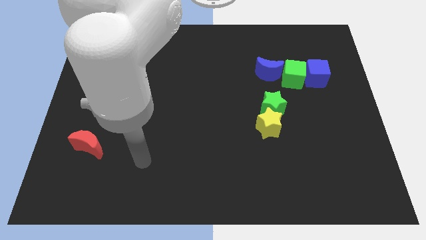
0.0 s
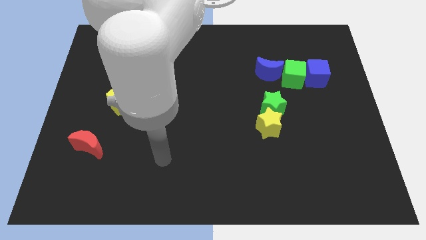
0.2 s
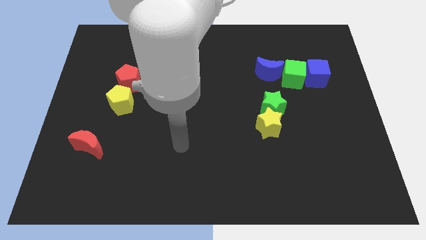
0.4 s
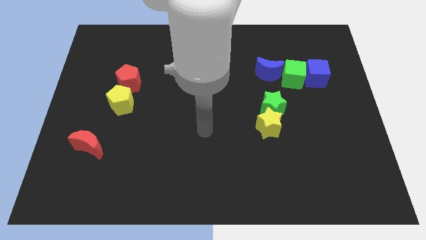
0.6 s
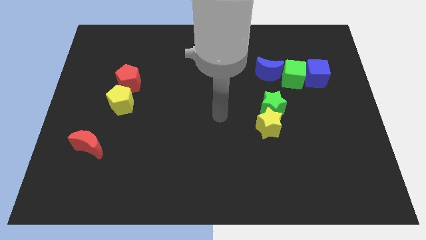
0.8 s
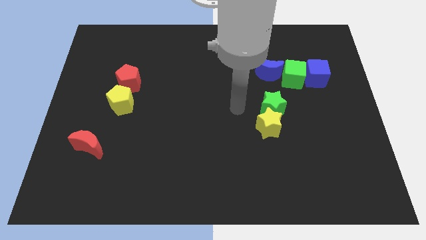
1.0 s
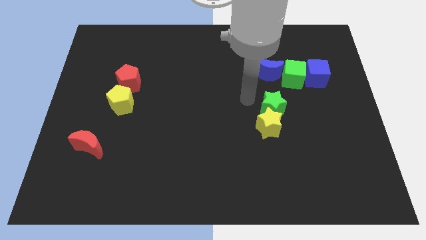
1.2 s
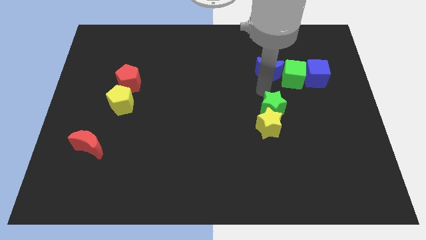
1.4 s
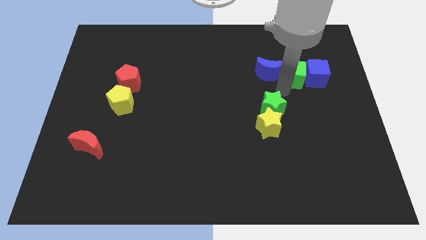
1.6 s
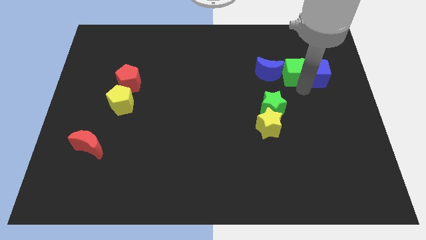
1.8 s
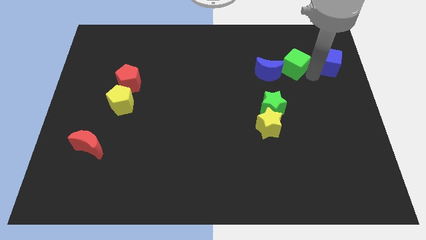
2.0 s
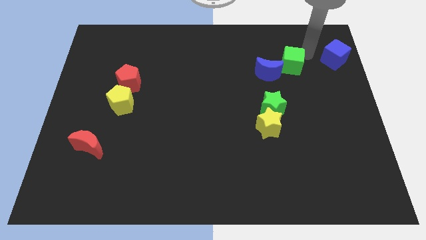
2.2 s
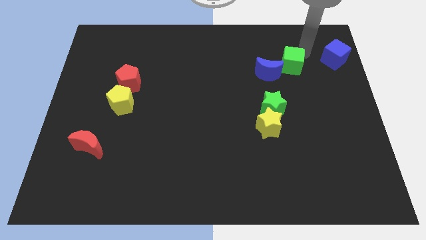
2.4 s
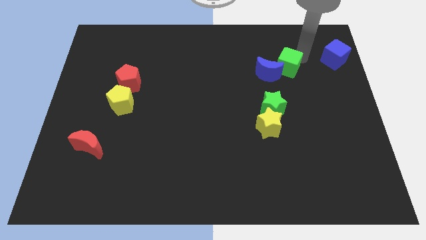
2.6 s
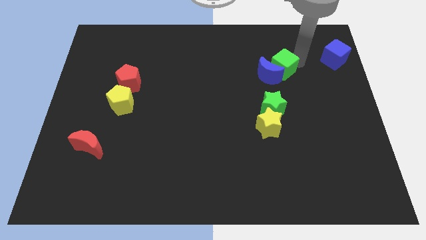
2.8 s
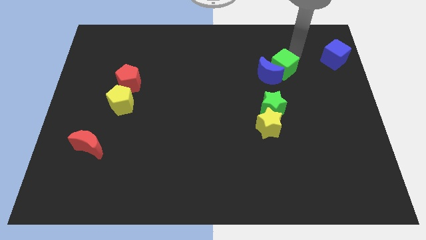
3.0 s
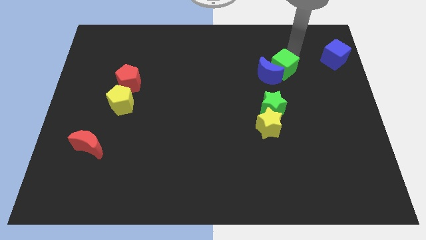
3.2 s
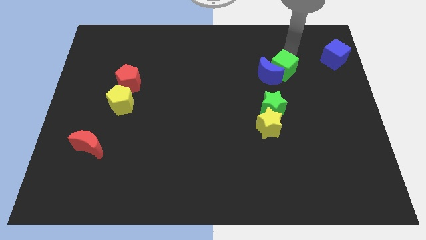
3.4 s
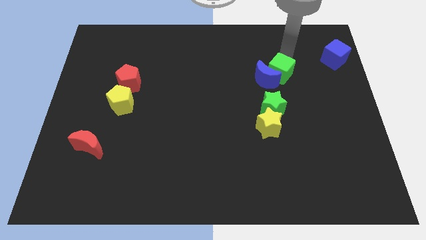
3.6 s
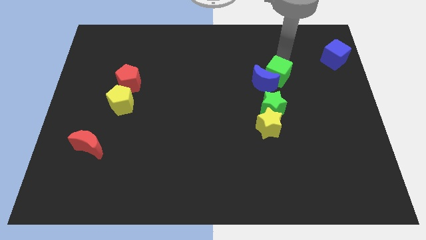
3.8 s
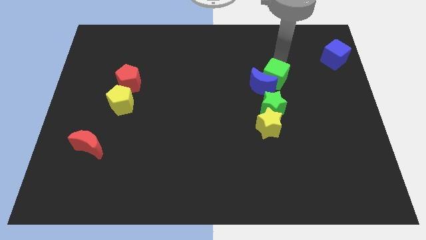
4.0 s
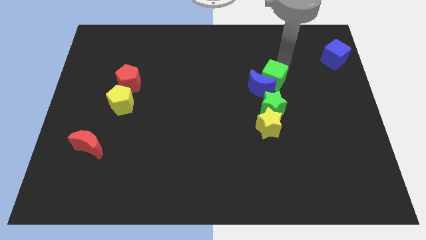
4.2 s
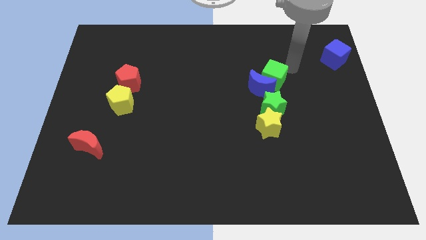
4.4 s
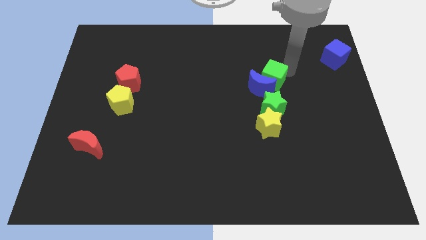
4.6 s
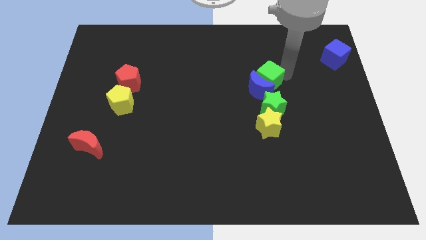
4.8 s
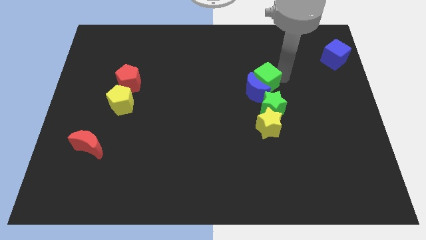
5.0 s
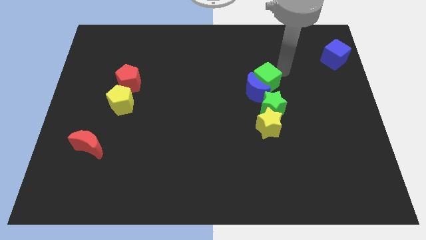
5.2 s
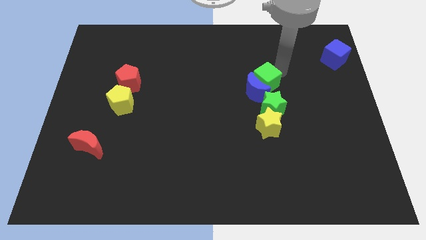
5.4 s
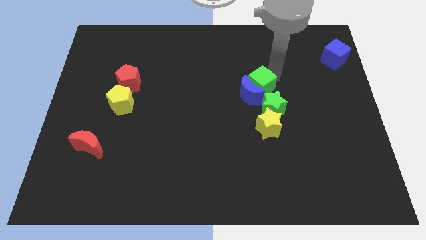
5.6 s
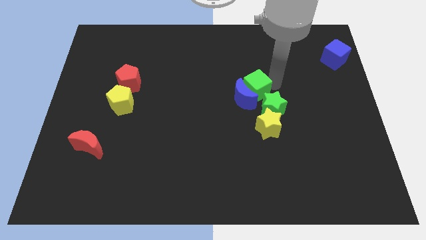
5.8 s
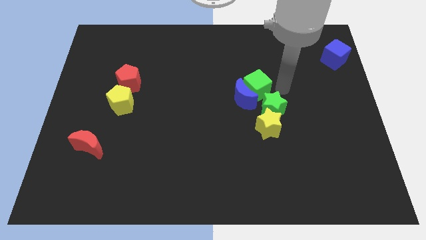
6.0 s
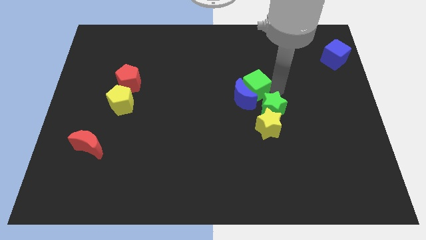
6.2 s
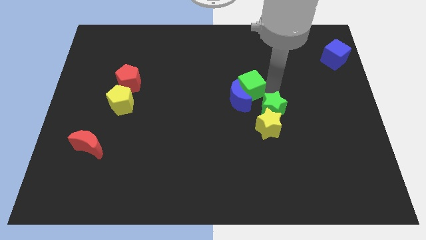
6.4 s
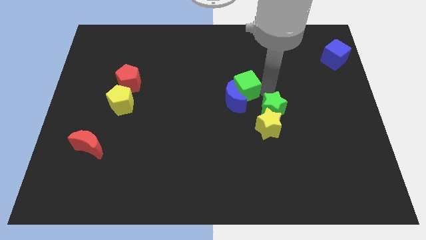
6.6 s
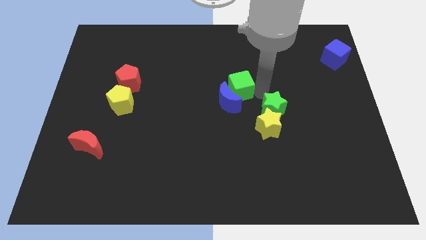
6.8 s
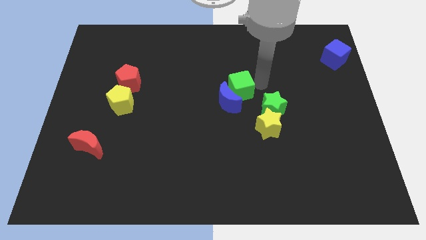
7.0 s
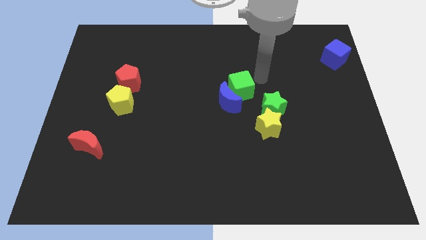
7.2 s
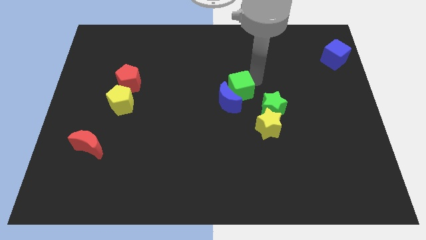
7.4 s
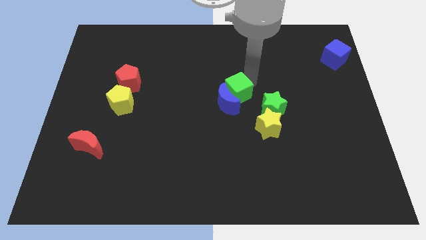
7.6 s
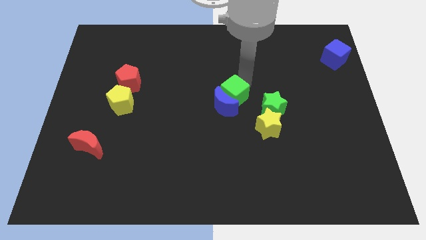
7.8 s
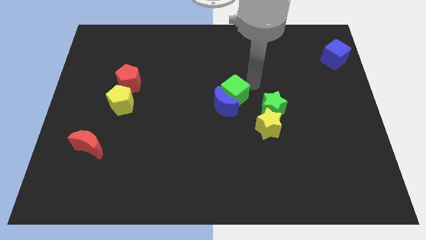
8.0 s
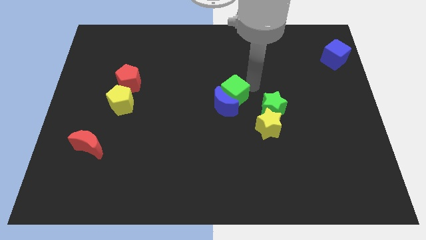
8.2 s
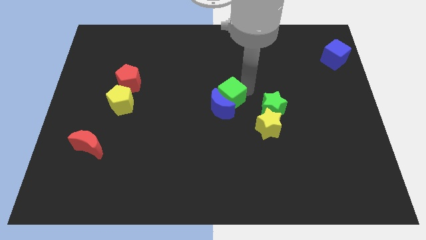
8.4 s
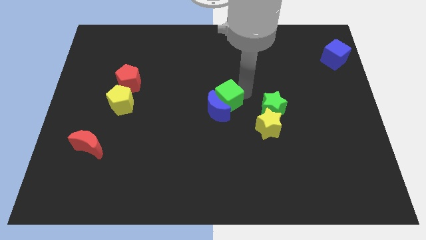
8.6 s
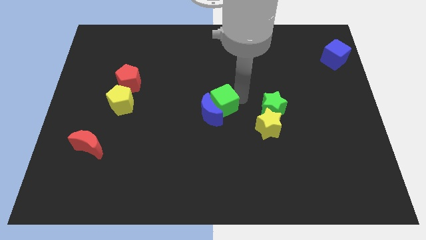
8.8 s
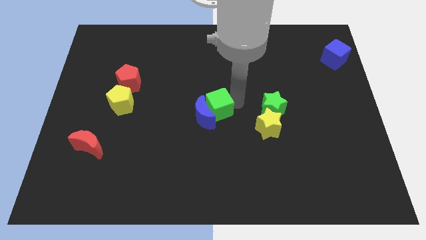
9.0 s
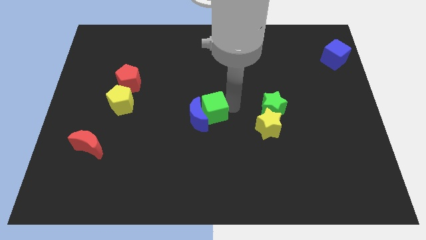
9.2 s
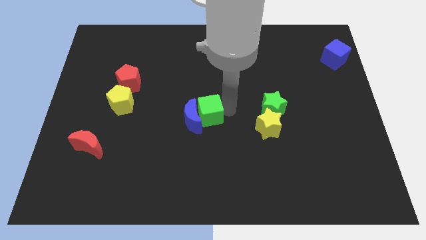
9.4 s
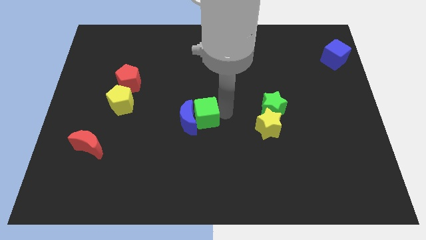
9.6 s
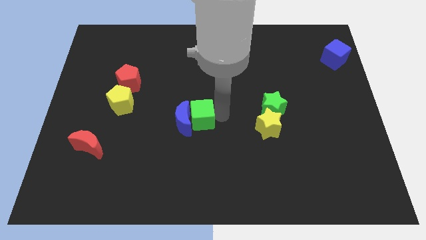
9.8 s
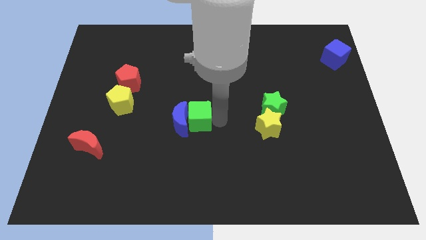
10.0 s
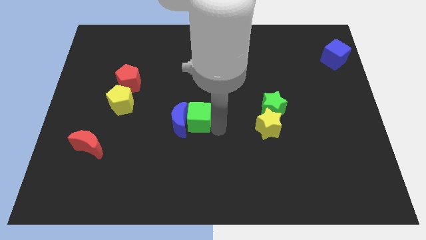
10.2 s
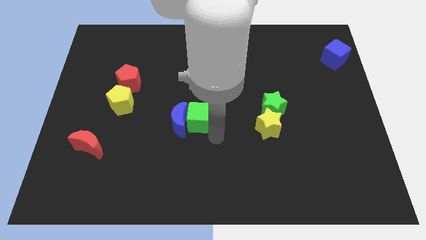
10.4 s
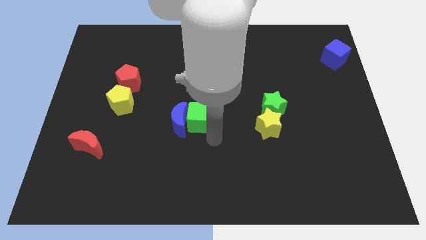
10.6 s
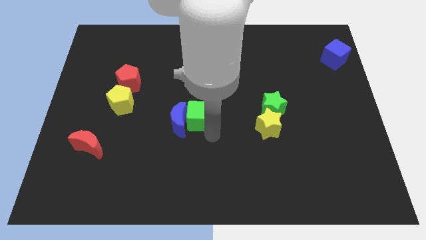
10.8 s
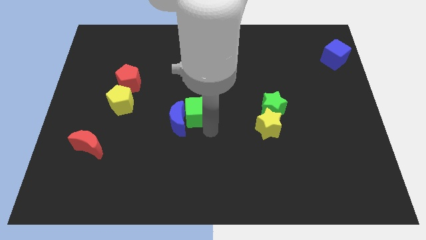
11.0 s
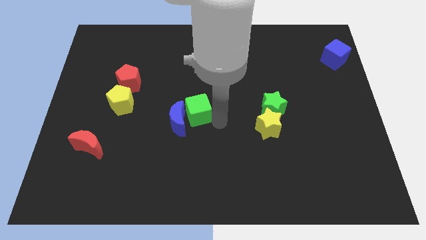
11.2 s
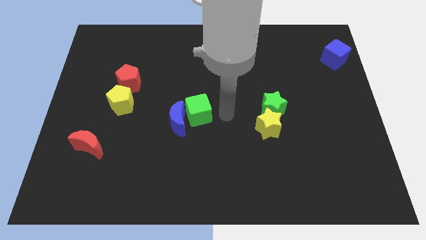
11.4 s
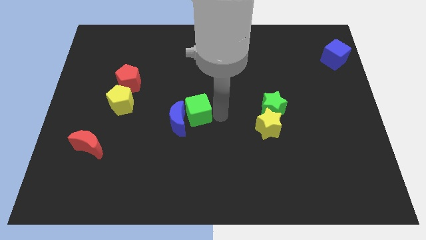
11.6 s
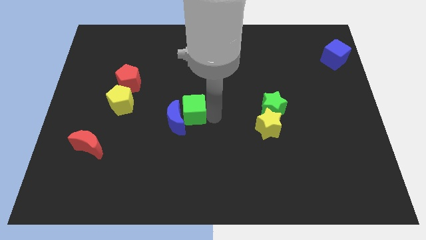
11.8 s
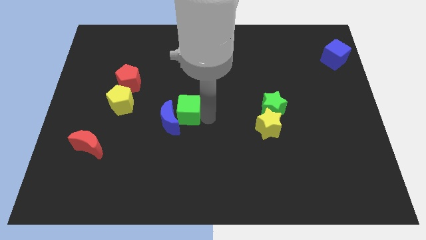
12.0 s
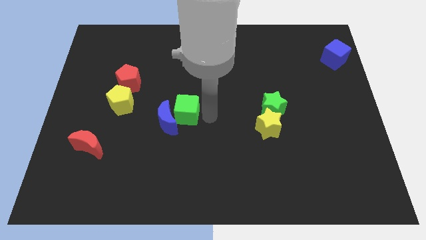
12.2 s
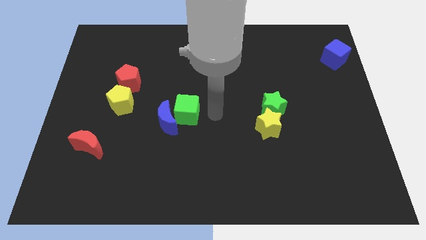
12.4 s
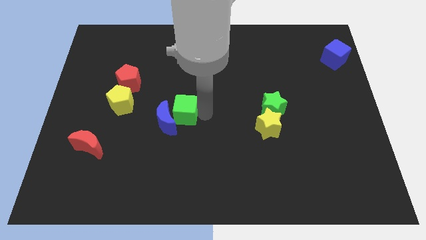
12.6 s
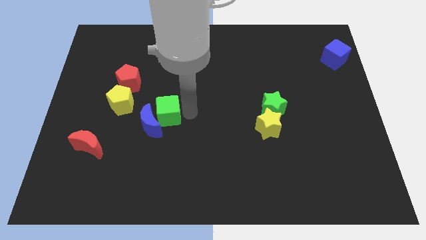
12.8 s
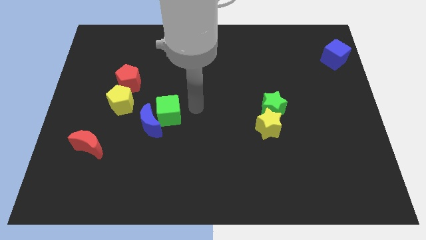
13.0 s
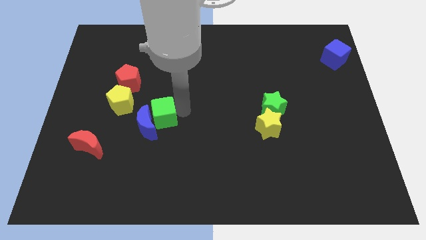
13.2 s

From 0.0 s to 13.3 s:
move the green cube to the bottom right of the yellow pentagon

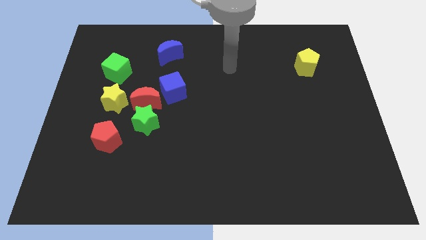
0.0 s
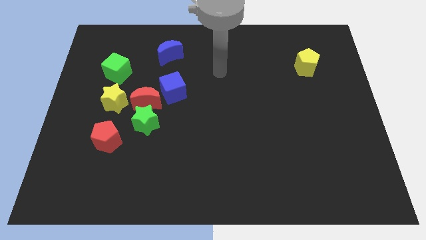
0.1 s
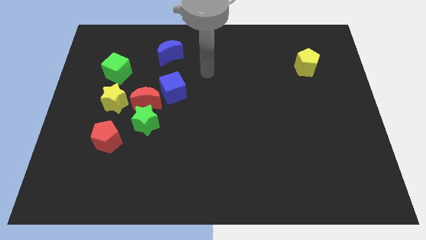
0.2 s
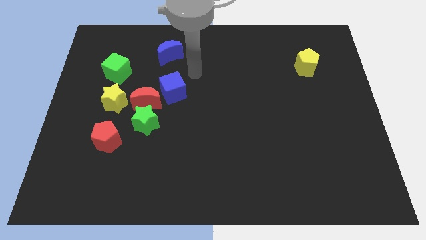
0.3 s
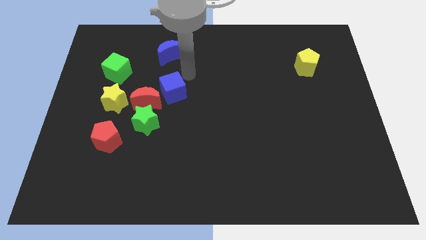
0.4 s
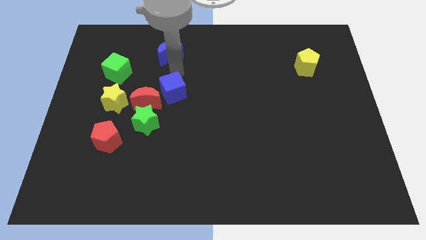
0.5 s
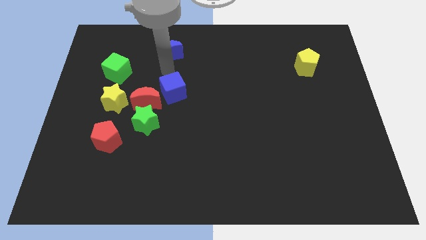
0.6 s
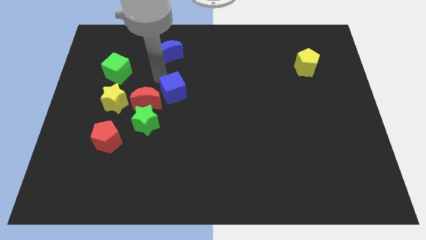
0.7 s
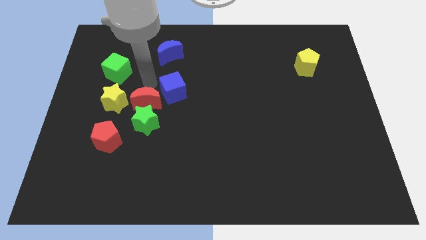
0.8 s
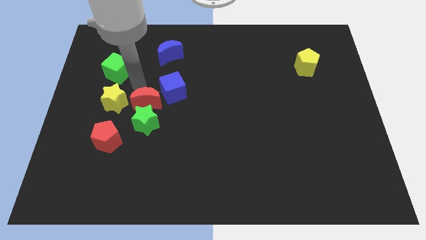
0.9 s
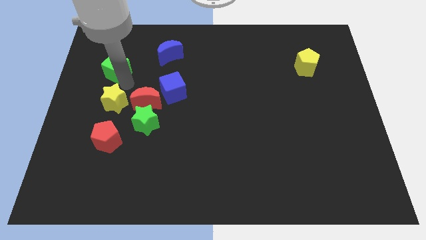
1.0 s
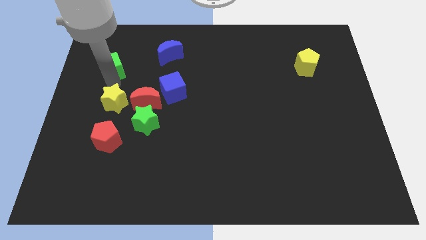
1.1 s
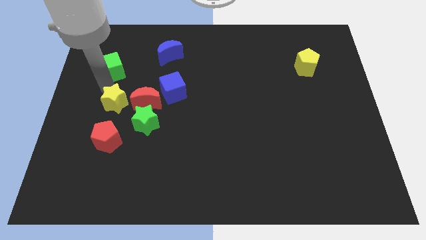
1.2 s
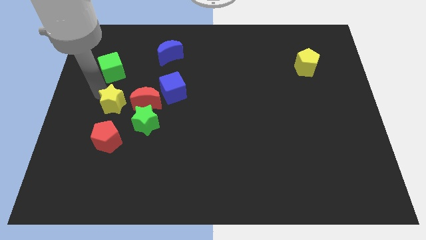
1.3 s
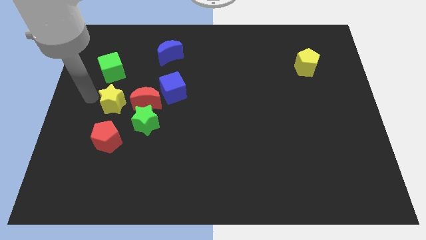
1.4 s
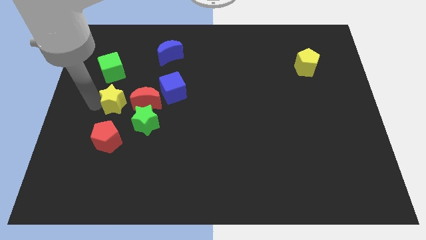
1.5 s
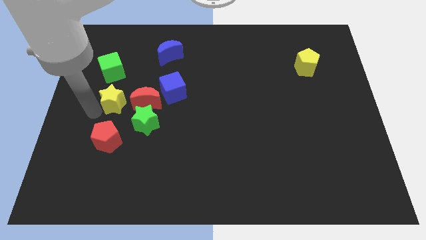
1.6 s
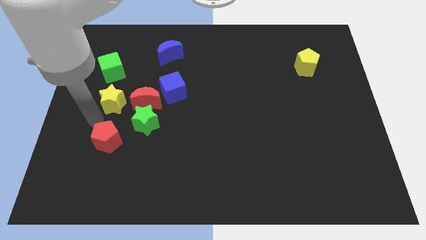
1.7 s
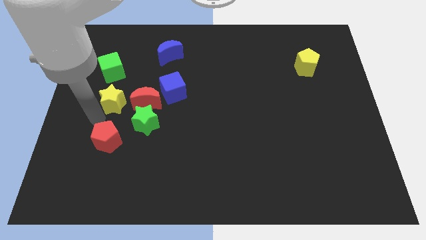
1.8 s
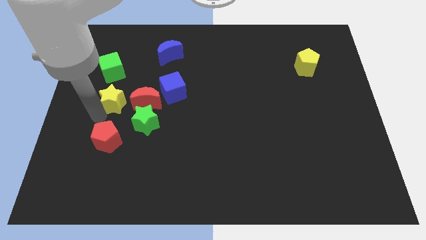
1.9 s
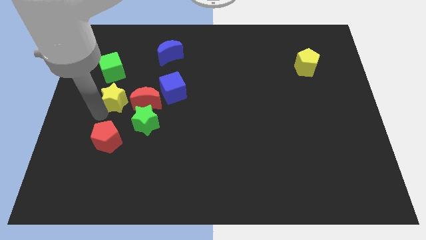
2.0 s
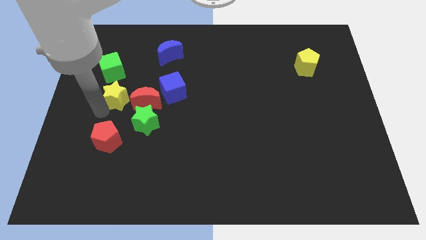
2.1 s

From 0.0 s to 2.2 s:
move the yellow star to the top left side of the red moon
